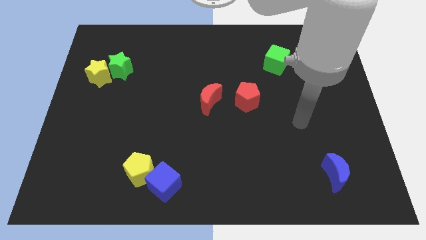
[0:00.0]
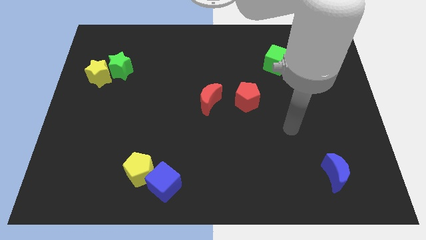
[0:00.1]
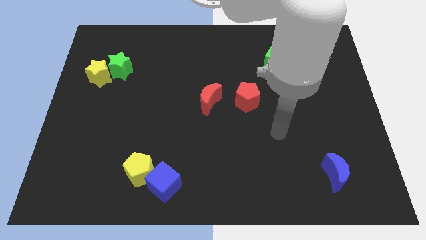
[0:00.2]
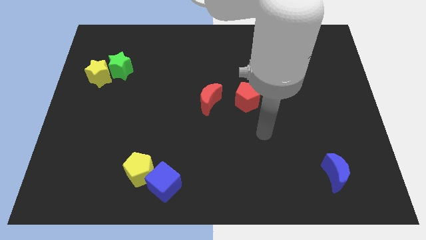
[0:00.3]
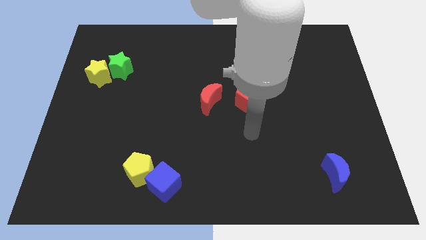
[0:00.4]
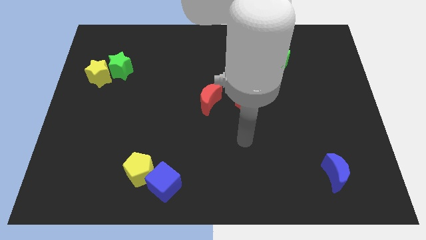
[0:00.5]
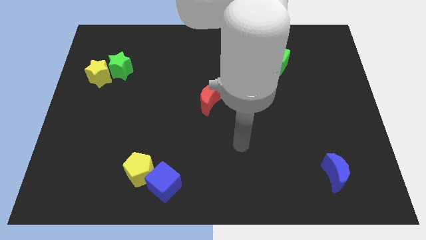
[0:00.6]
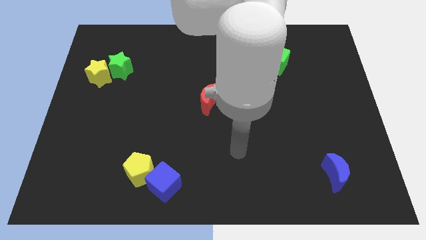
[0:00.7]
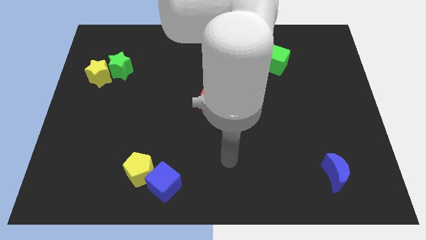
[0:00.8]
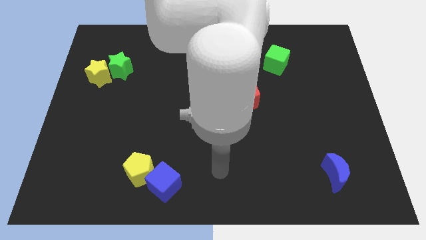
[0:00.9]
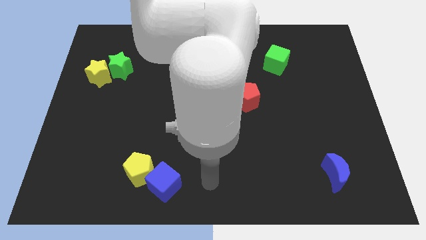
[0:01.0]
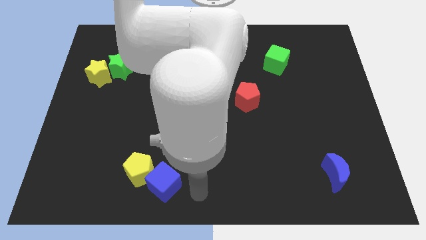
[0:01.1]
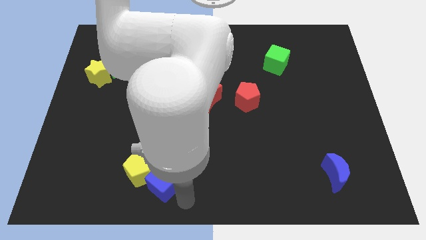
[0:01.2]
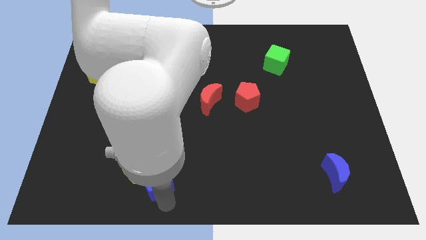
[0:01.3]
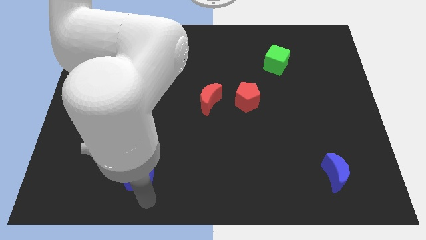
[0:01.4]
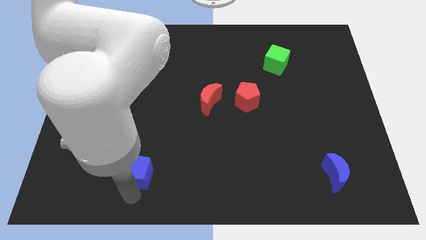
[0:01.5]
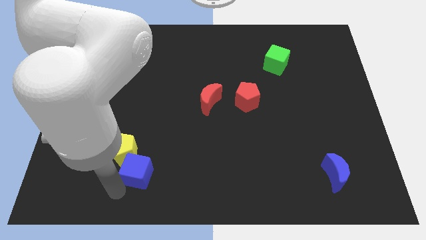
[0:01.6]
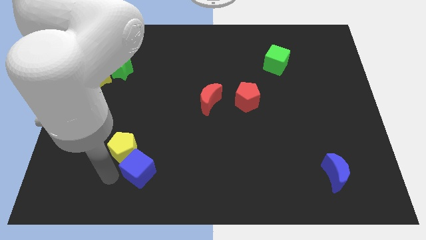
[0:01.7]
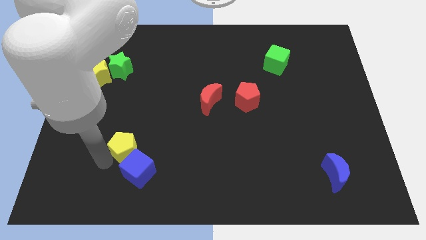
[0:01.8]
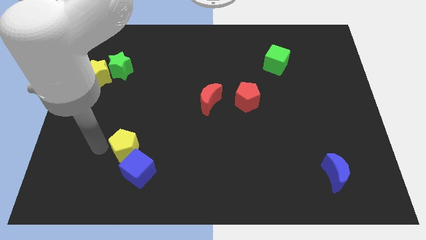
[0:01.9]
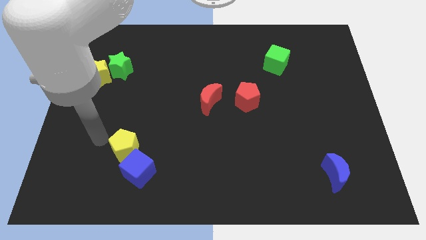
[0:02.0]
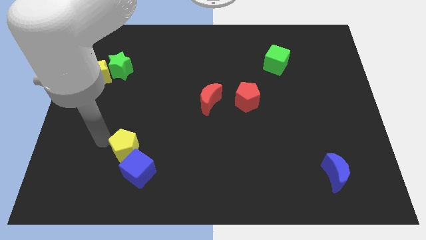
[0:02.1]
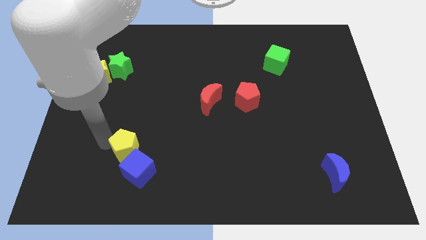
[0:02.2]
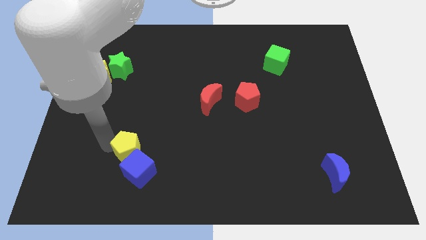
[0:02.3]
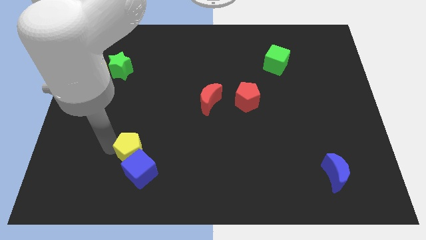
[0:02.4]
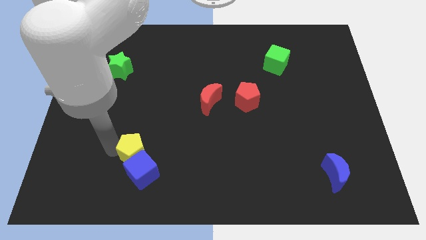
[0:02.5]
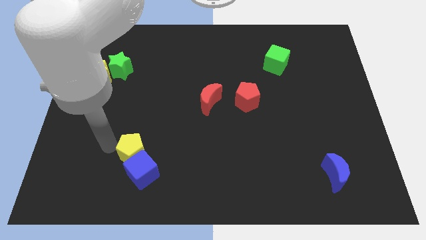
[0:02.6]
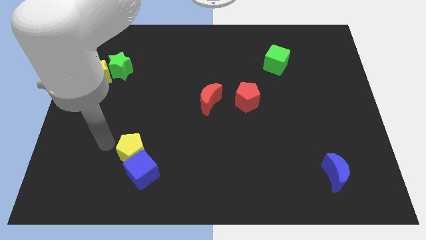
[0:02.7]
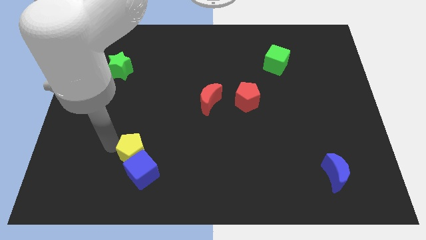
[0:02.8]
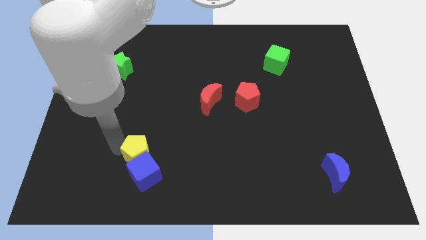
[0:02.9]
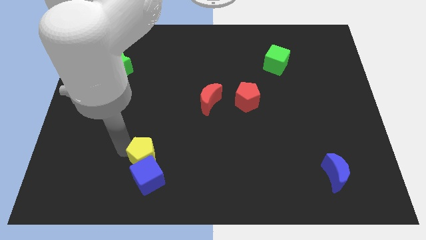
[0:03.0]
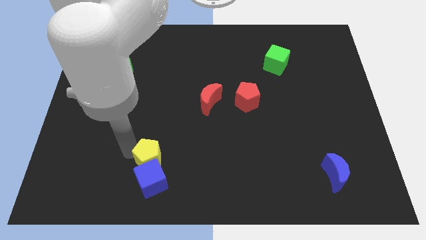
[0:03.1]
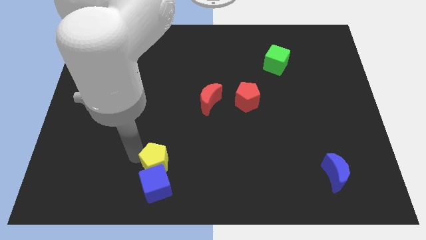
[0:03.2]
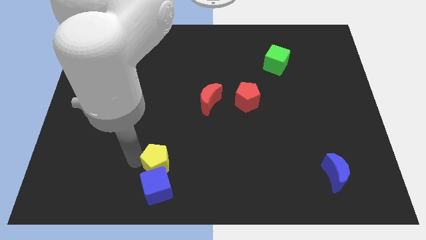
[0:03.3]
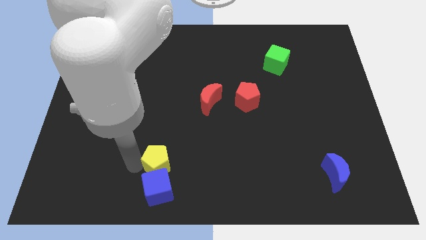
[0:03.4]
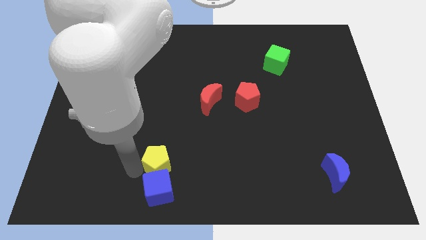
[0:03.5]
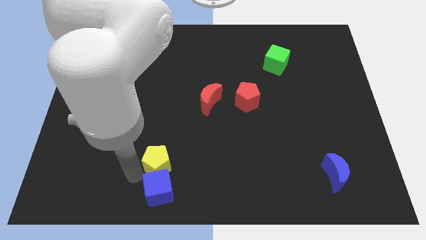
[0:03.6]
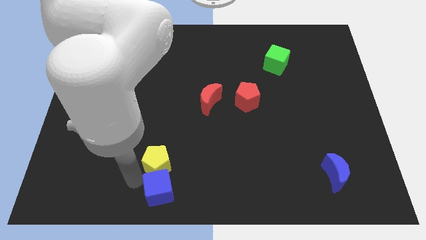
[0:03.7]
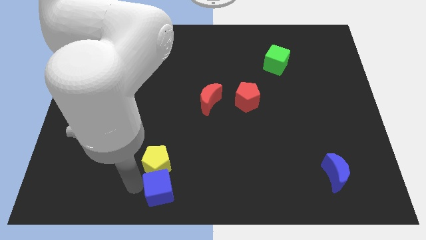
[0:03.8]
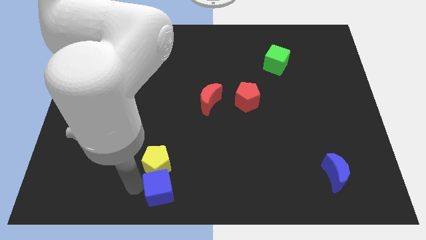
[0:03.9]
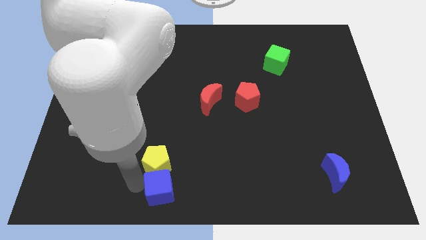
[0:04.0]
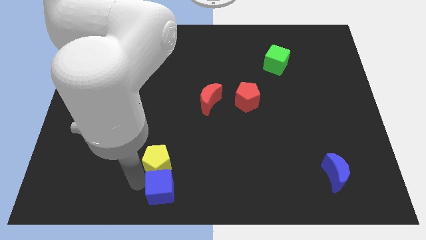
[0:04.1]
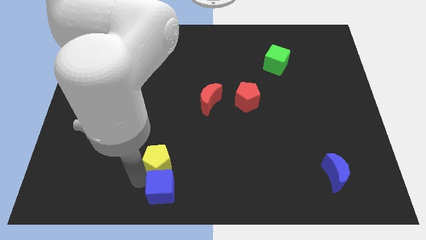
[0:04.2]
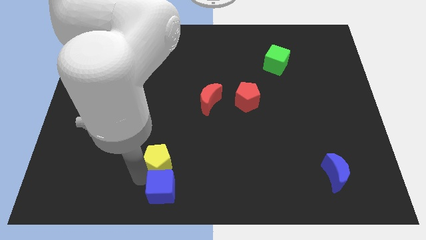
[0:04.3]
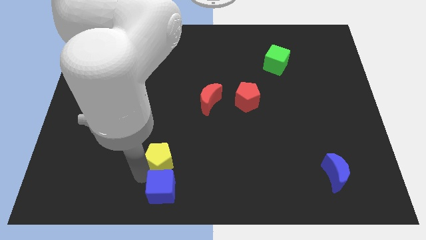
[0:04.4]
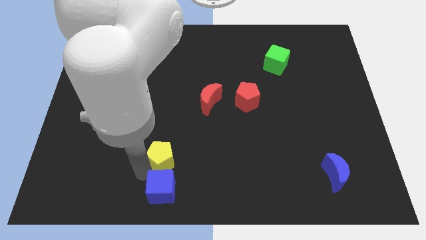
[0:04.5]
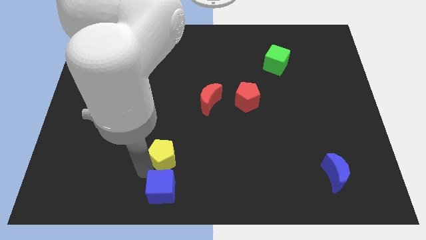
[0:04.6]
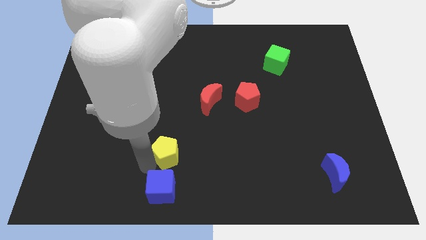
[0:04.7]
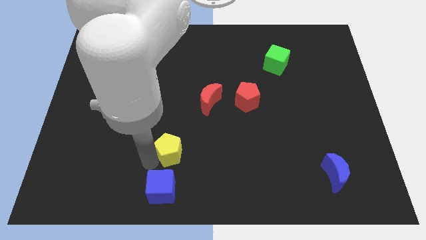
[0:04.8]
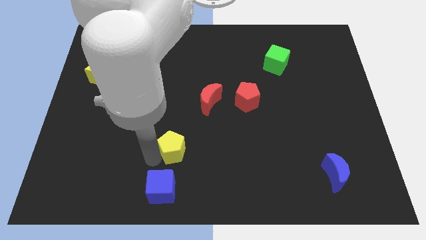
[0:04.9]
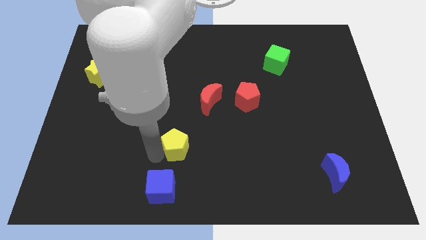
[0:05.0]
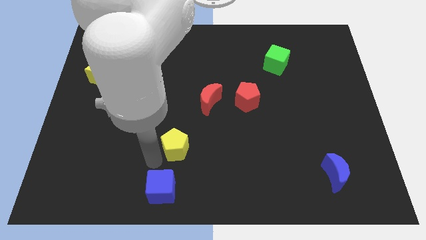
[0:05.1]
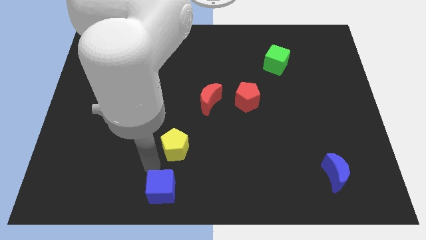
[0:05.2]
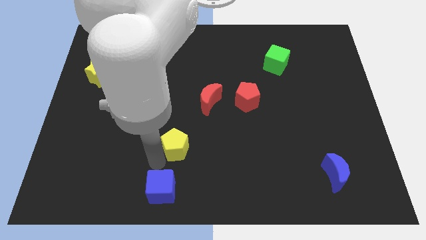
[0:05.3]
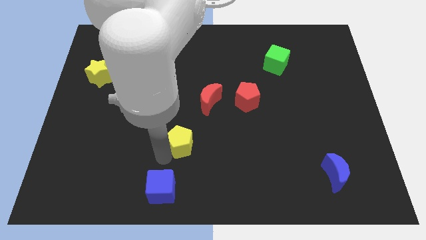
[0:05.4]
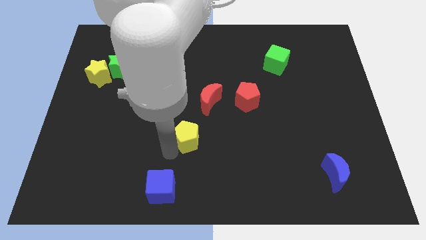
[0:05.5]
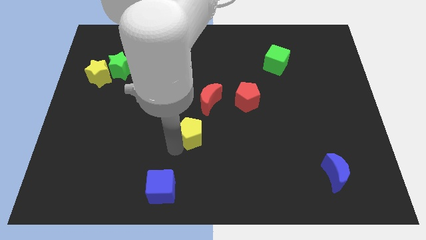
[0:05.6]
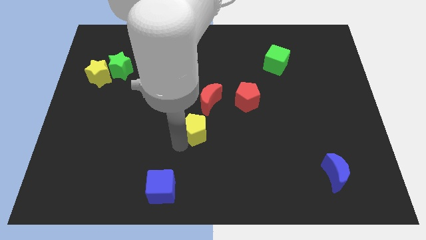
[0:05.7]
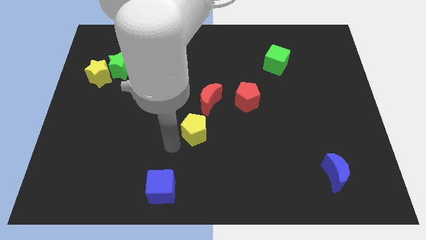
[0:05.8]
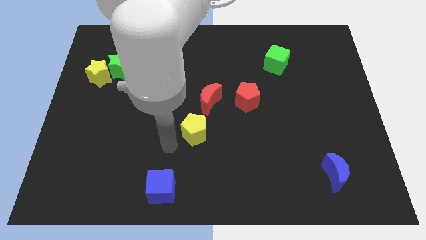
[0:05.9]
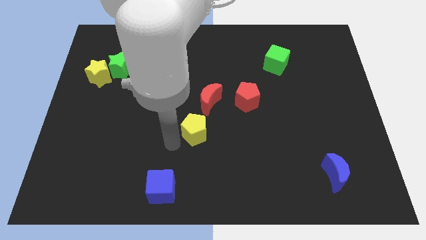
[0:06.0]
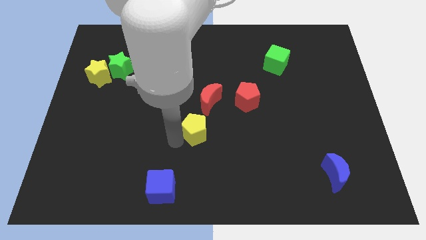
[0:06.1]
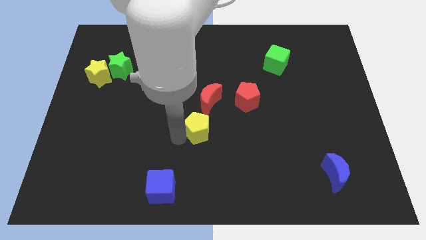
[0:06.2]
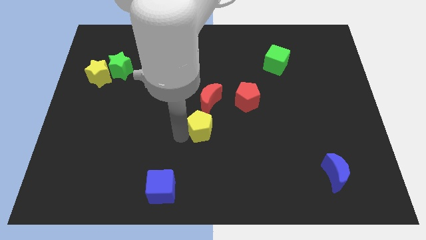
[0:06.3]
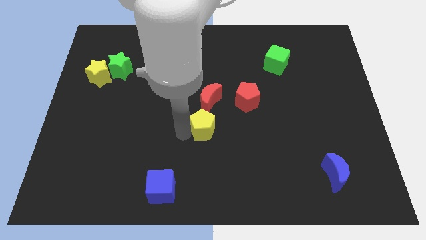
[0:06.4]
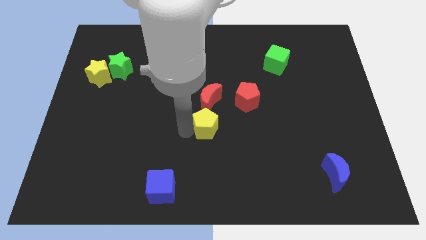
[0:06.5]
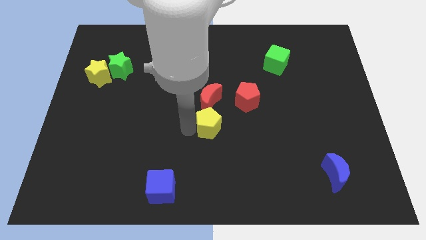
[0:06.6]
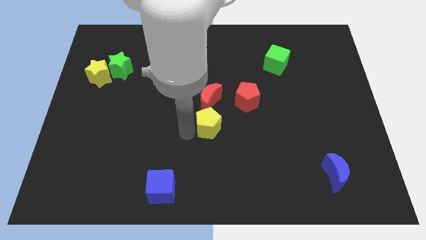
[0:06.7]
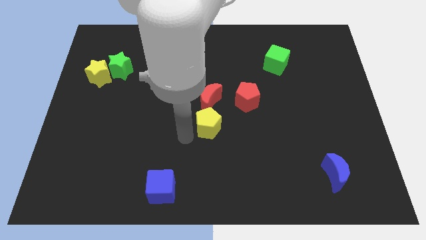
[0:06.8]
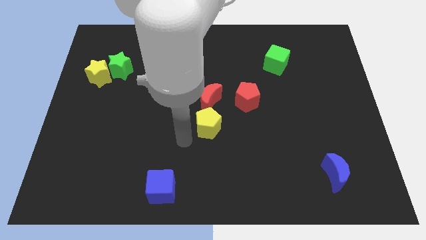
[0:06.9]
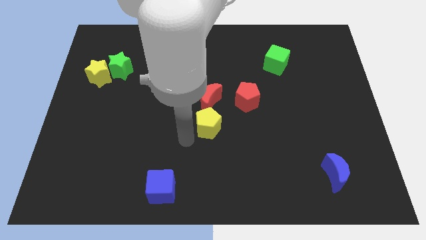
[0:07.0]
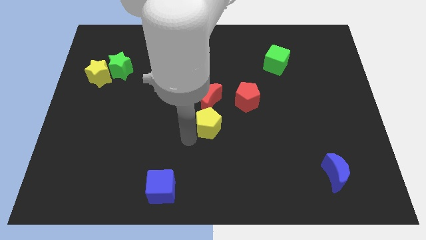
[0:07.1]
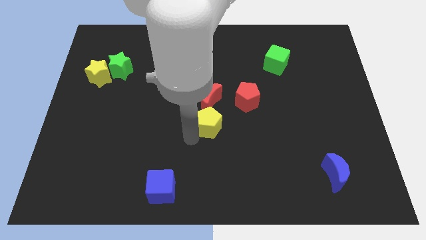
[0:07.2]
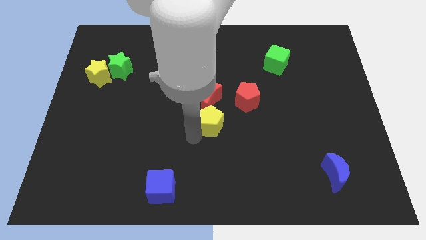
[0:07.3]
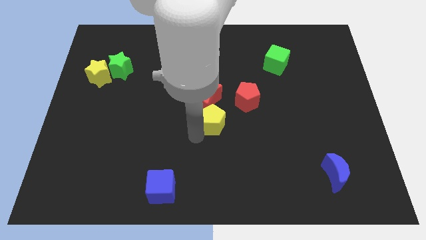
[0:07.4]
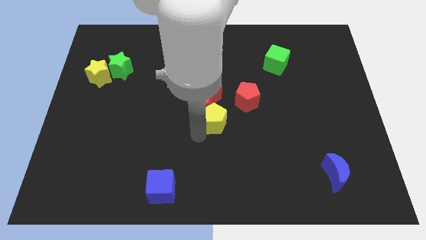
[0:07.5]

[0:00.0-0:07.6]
slide the yellow pentagon up and then to the right

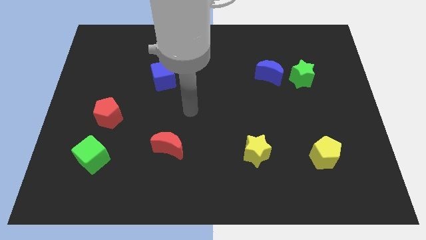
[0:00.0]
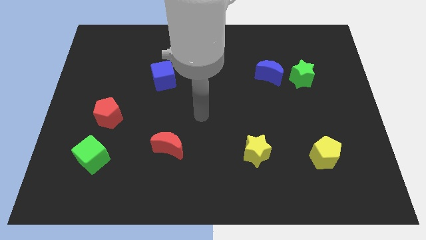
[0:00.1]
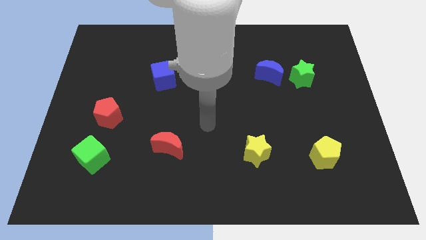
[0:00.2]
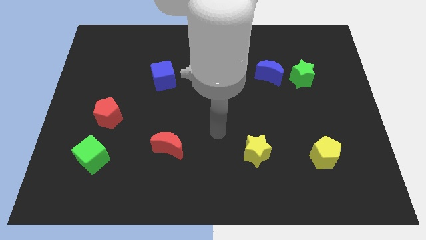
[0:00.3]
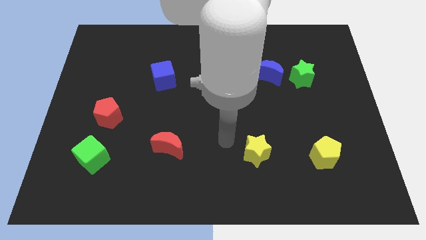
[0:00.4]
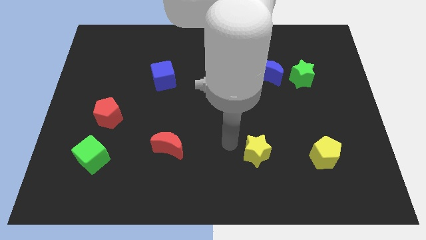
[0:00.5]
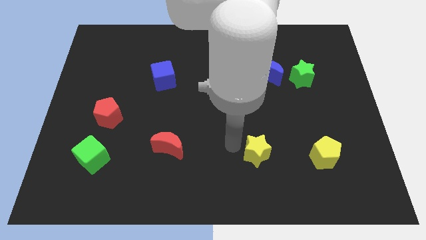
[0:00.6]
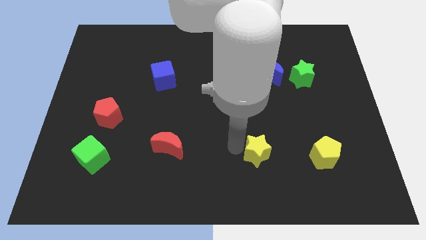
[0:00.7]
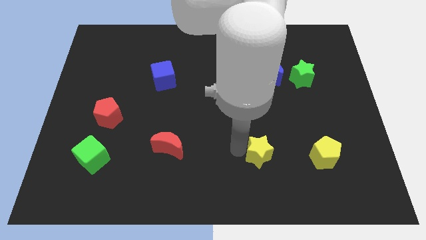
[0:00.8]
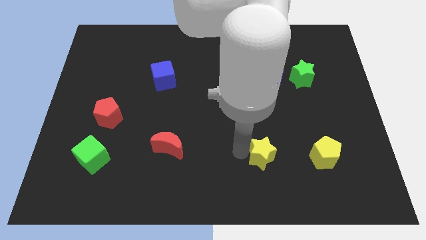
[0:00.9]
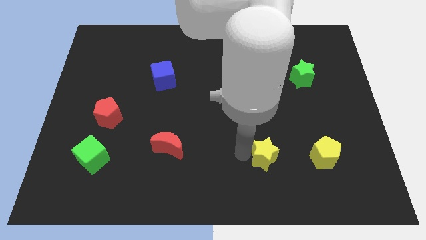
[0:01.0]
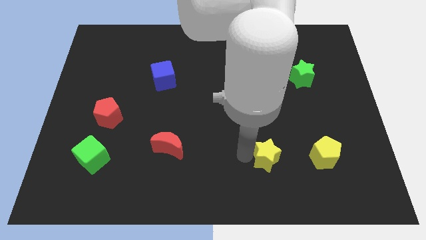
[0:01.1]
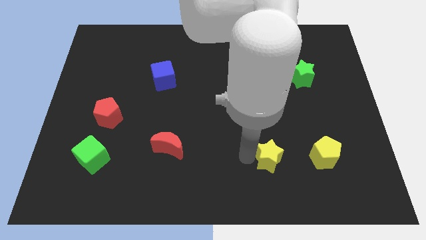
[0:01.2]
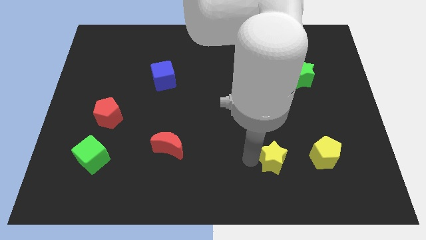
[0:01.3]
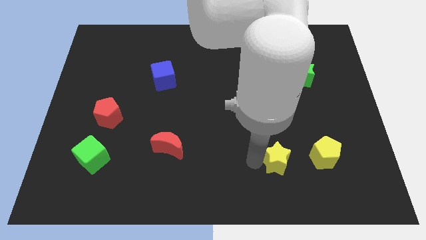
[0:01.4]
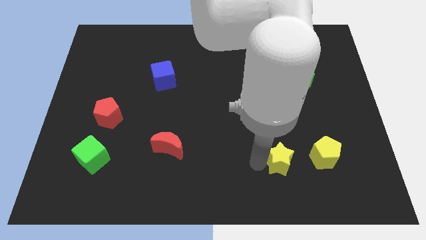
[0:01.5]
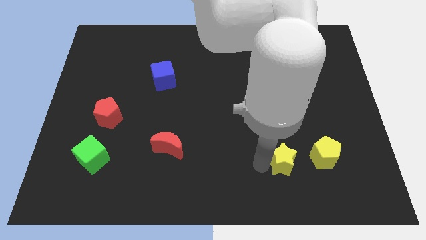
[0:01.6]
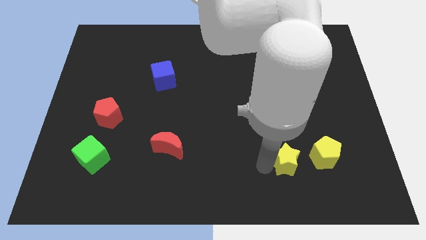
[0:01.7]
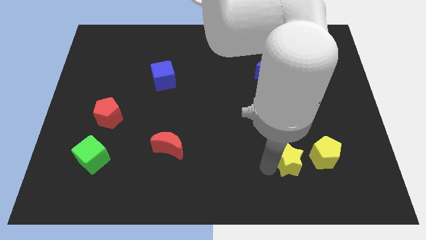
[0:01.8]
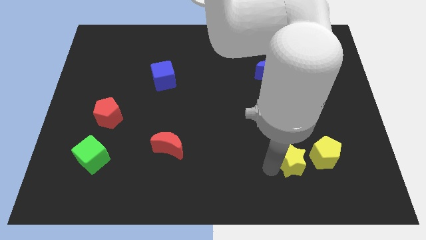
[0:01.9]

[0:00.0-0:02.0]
move the yellow star slightly to the right
